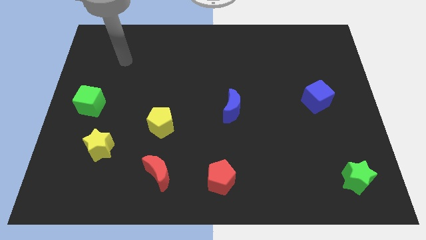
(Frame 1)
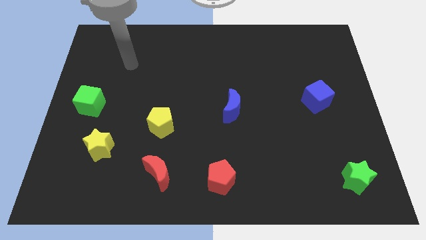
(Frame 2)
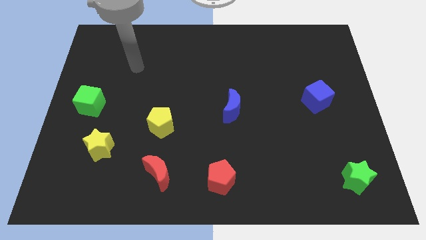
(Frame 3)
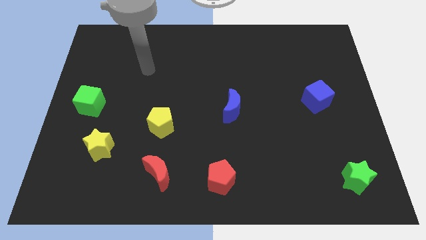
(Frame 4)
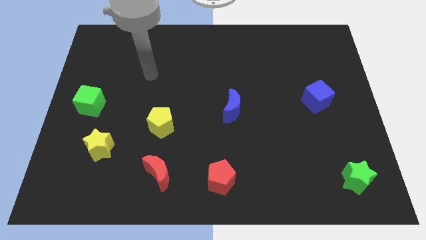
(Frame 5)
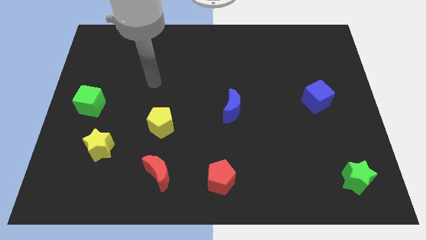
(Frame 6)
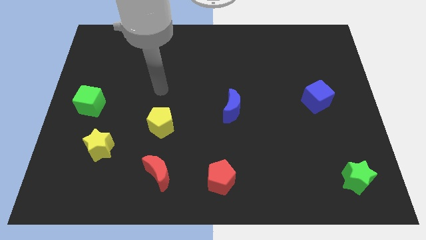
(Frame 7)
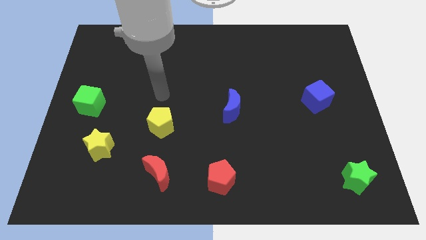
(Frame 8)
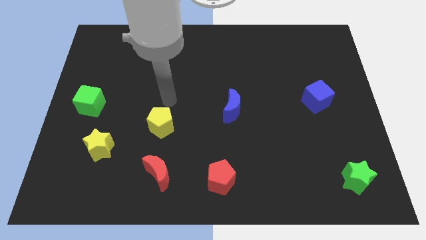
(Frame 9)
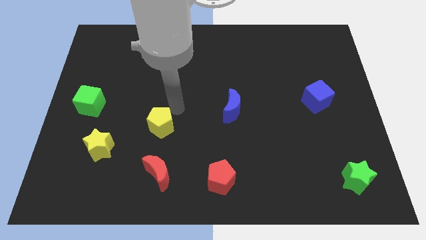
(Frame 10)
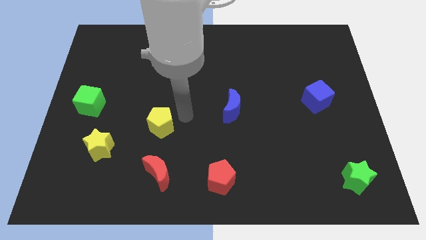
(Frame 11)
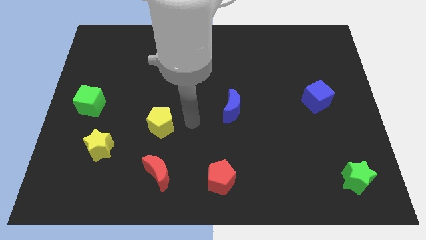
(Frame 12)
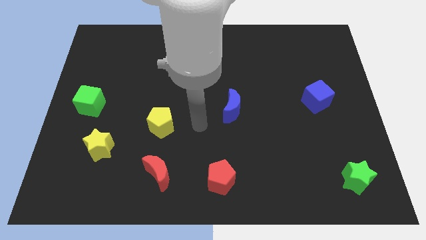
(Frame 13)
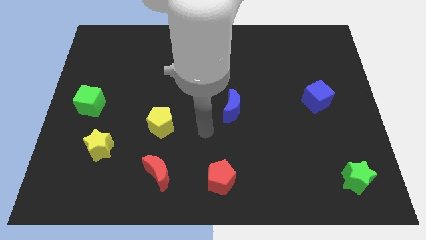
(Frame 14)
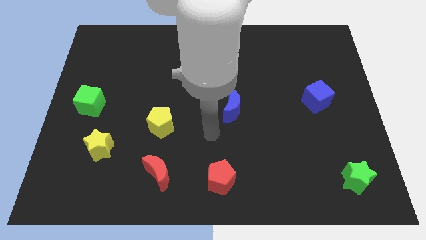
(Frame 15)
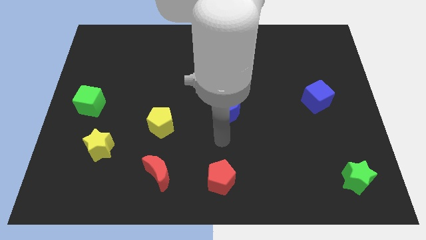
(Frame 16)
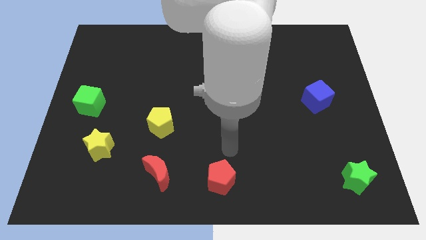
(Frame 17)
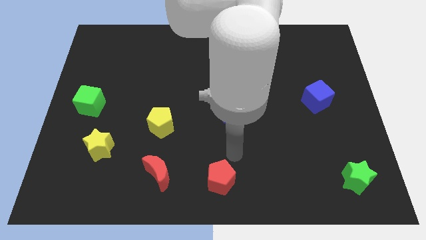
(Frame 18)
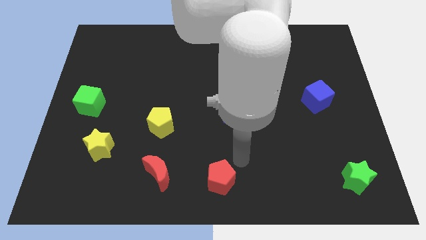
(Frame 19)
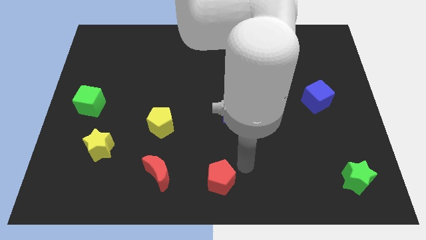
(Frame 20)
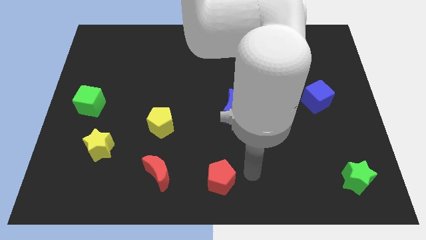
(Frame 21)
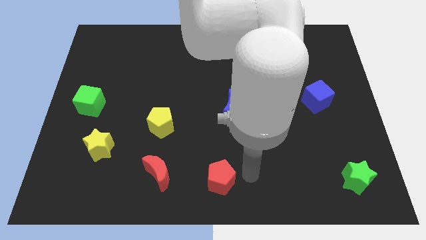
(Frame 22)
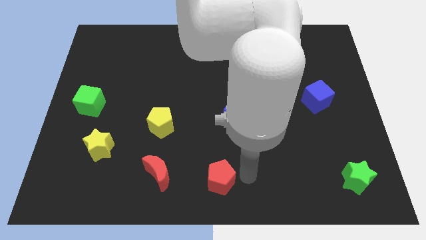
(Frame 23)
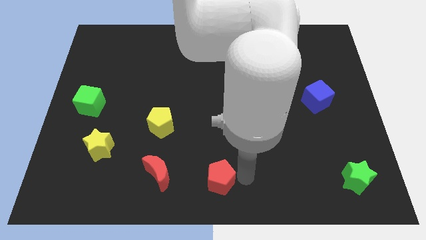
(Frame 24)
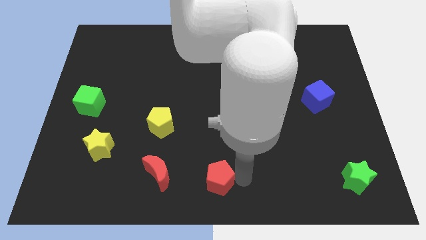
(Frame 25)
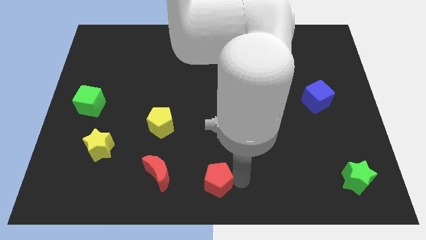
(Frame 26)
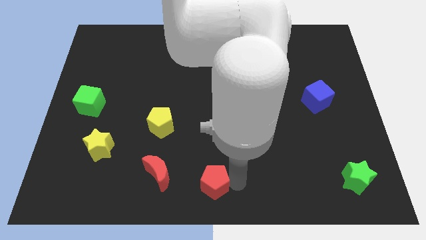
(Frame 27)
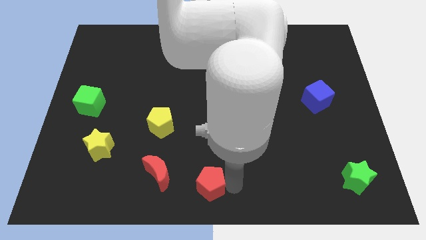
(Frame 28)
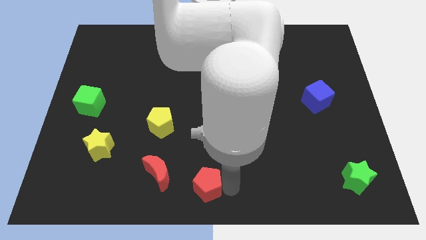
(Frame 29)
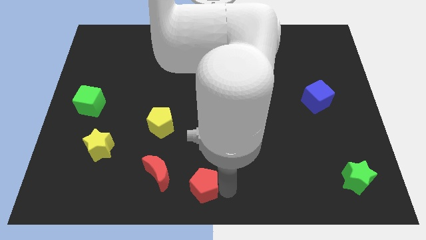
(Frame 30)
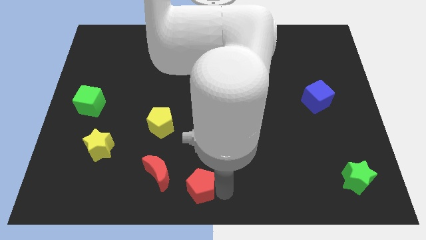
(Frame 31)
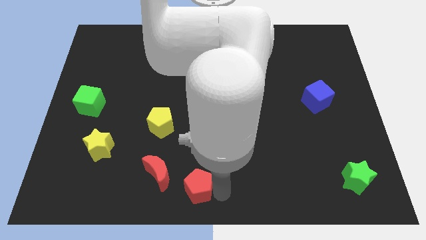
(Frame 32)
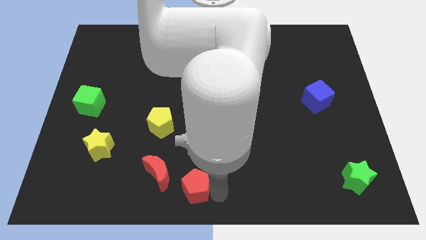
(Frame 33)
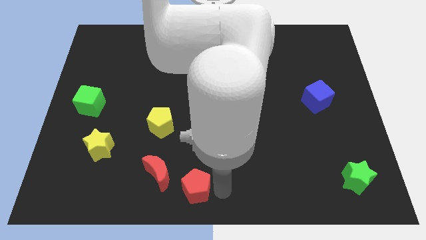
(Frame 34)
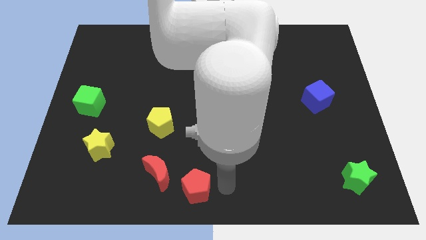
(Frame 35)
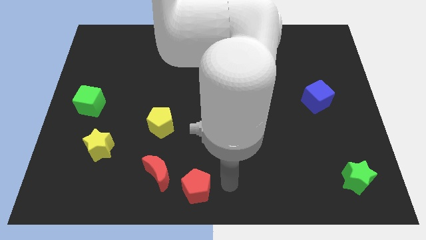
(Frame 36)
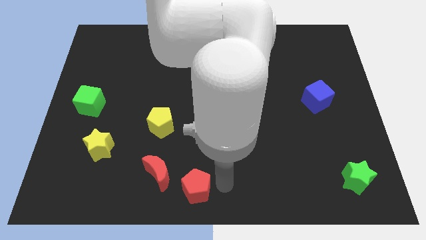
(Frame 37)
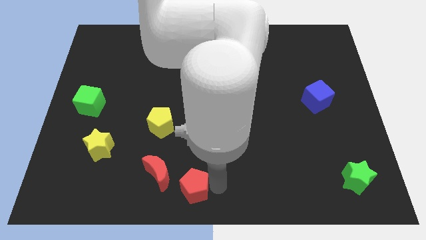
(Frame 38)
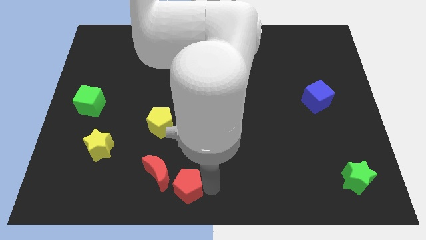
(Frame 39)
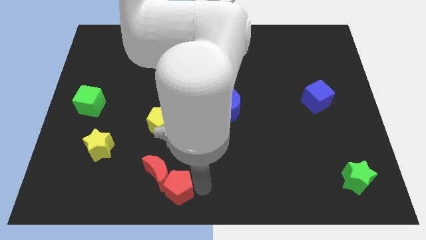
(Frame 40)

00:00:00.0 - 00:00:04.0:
push the red pentagon to the left slightly

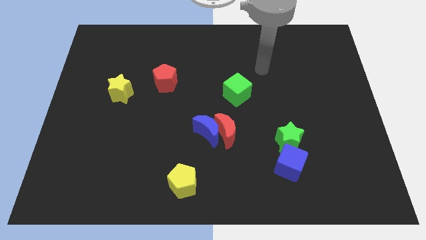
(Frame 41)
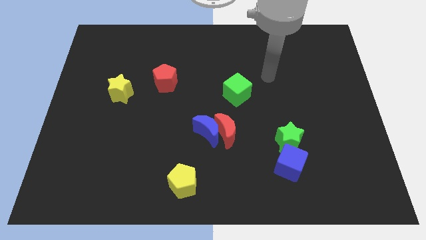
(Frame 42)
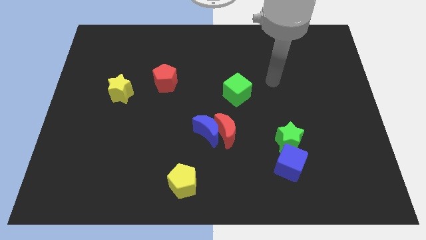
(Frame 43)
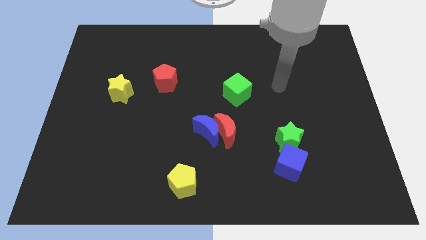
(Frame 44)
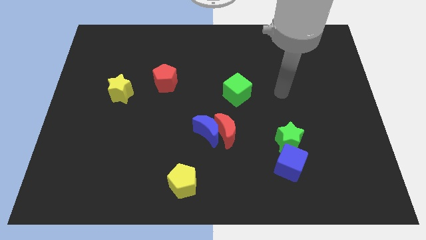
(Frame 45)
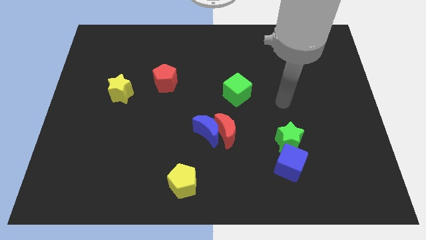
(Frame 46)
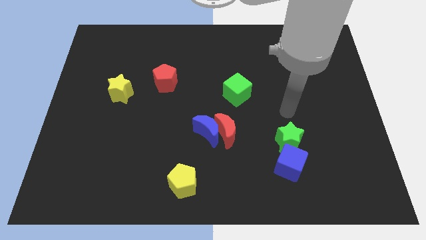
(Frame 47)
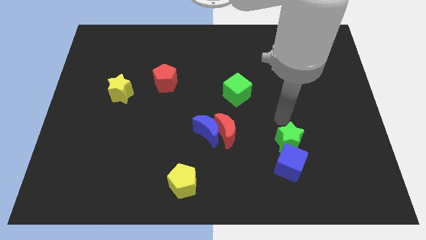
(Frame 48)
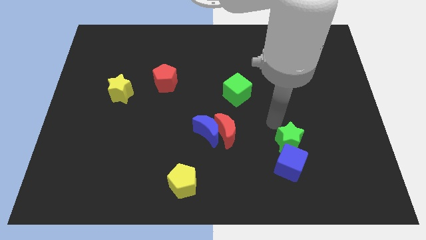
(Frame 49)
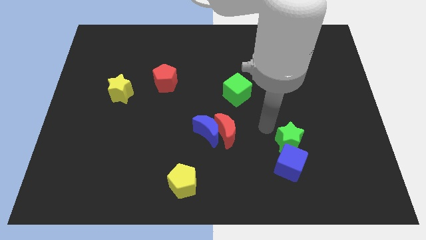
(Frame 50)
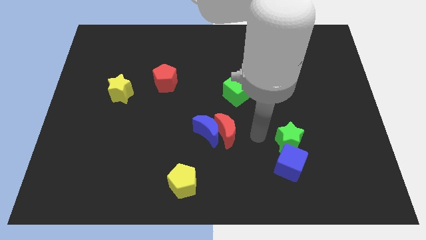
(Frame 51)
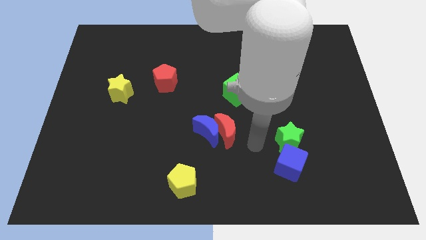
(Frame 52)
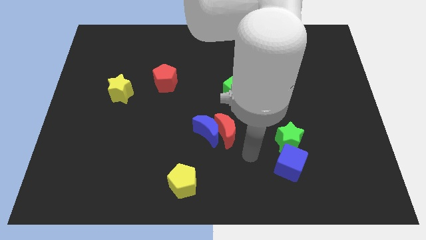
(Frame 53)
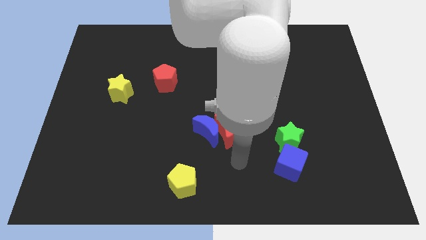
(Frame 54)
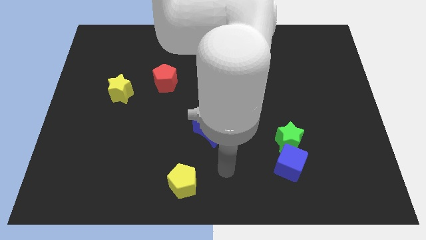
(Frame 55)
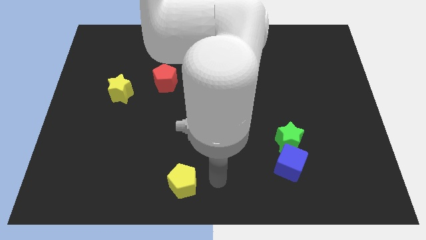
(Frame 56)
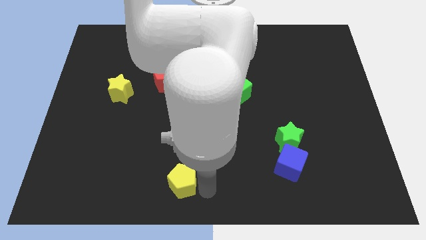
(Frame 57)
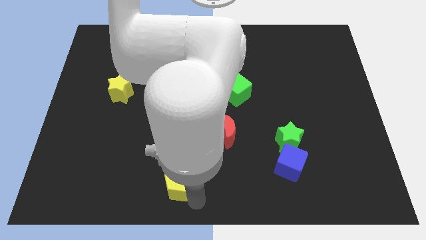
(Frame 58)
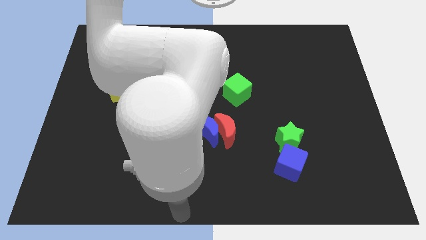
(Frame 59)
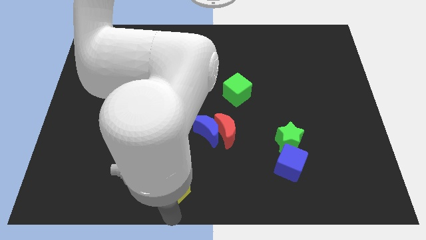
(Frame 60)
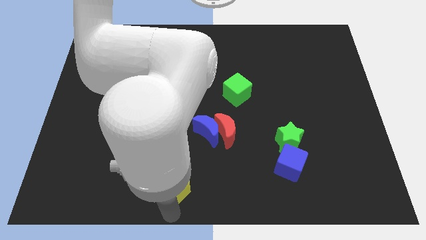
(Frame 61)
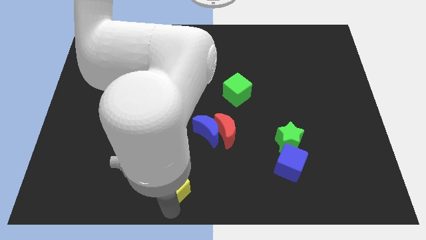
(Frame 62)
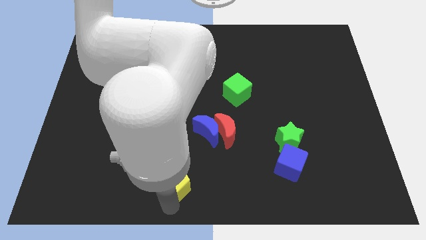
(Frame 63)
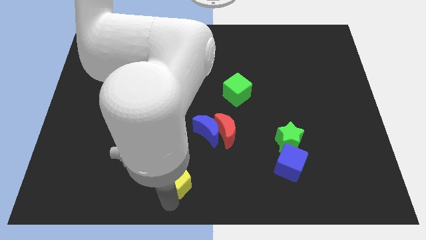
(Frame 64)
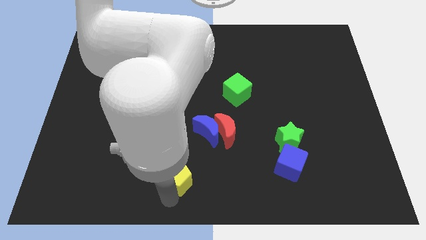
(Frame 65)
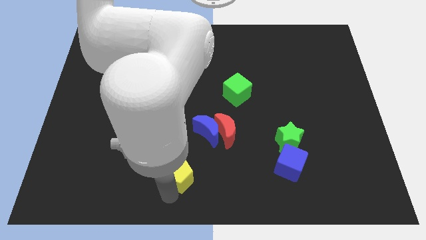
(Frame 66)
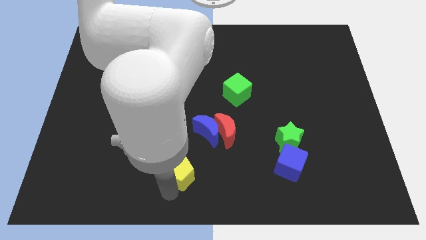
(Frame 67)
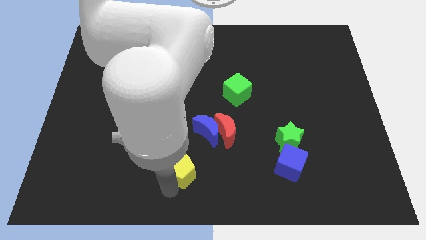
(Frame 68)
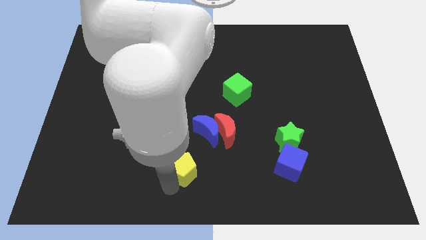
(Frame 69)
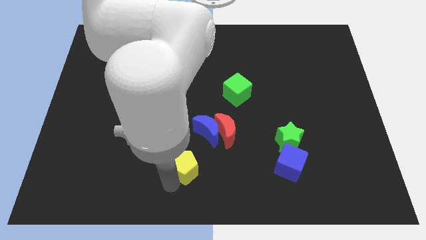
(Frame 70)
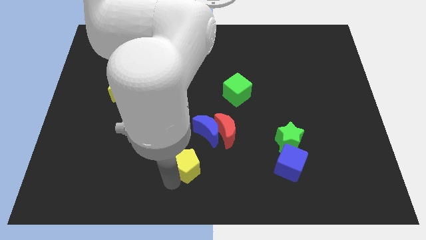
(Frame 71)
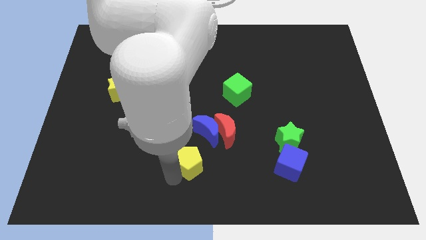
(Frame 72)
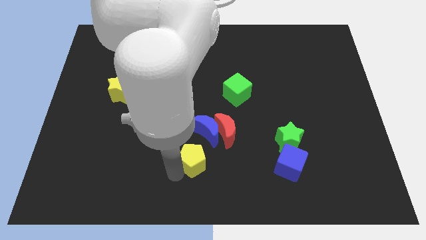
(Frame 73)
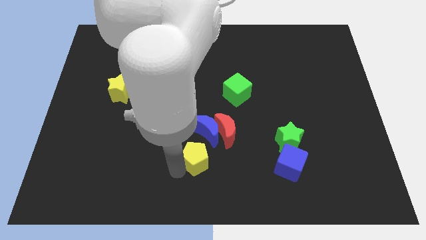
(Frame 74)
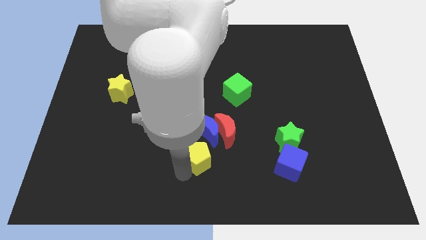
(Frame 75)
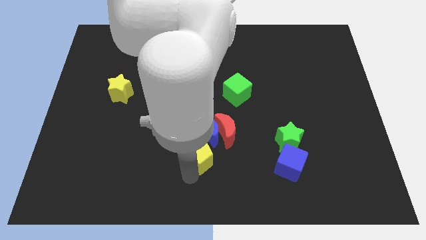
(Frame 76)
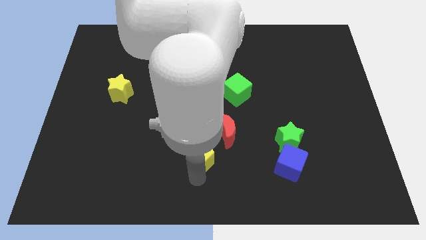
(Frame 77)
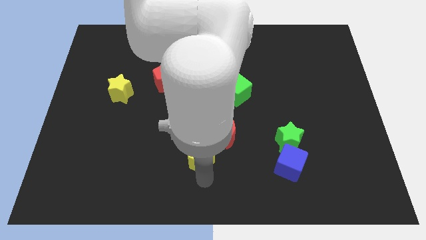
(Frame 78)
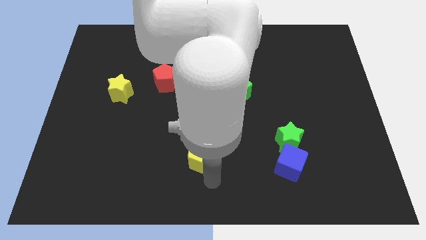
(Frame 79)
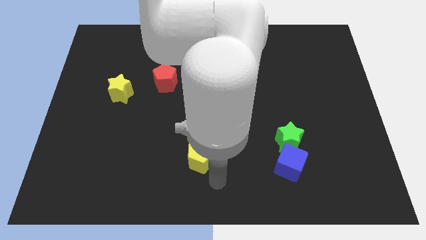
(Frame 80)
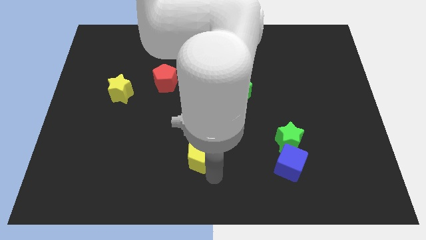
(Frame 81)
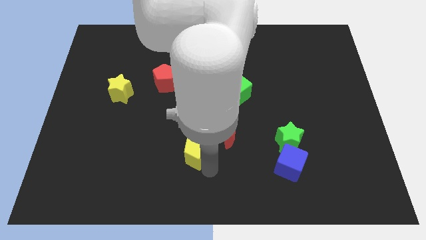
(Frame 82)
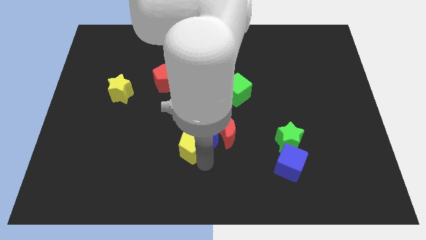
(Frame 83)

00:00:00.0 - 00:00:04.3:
slide the yellow pentagon a little upwards
